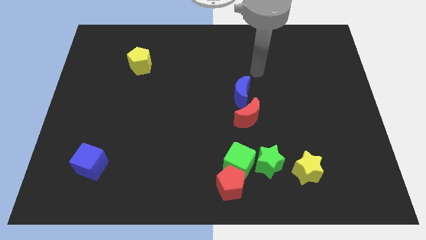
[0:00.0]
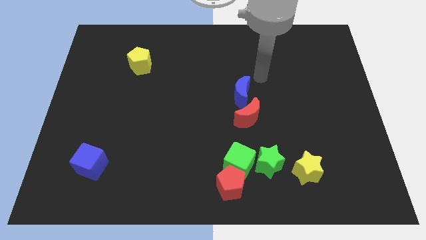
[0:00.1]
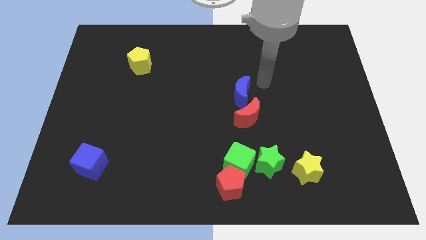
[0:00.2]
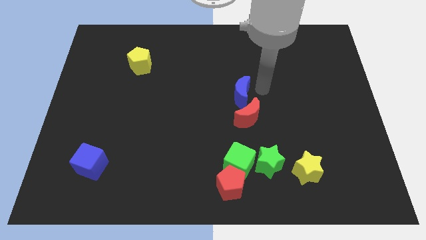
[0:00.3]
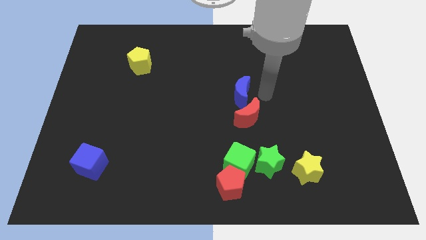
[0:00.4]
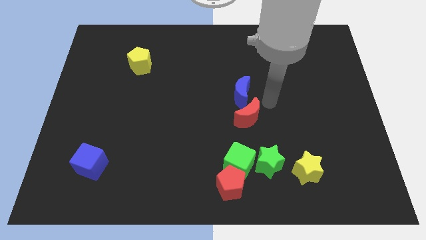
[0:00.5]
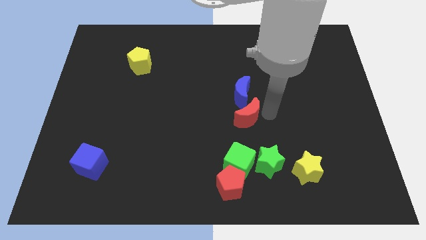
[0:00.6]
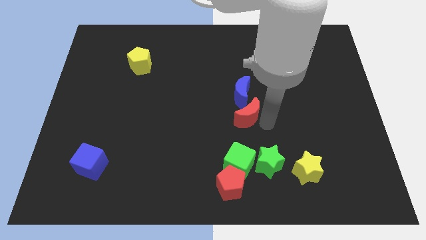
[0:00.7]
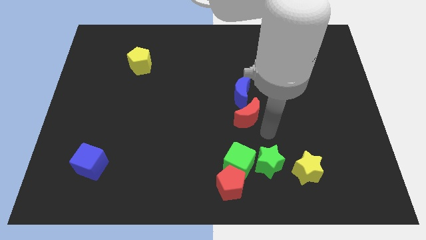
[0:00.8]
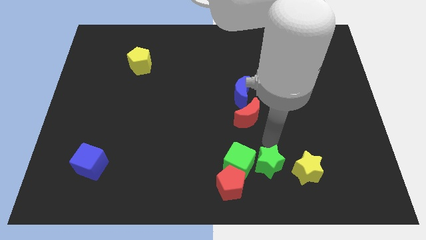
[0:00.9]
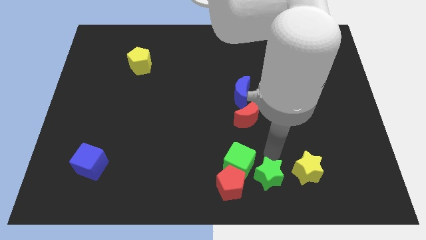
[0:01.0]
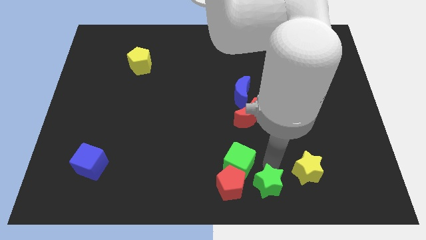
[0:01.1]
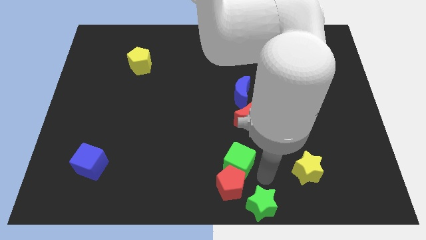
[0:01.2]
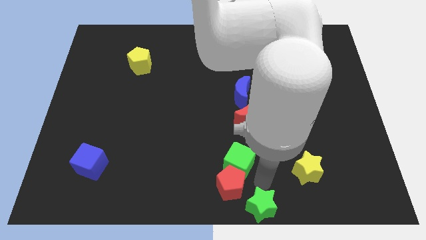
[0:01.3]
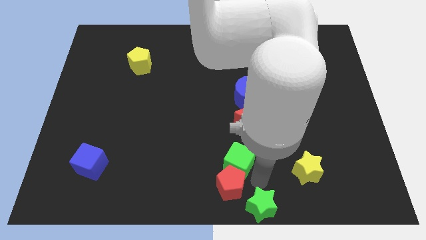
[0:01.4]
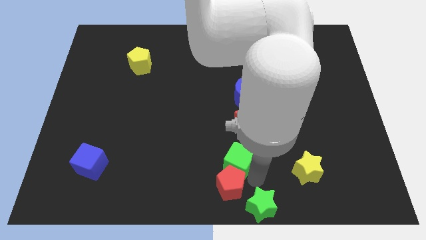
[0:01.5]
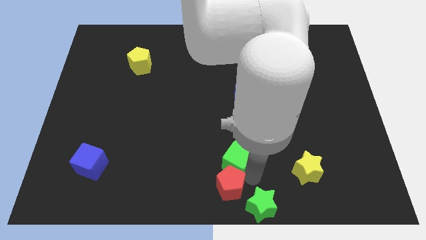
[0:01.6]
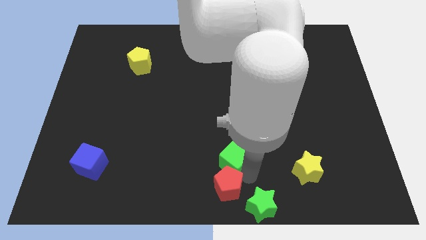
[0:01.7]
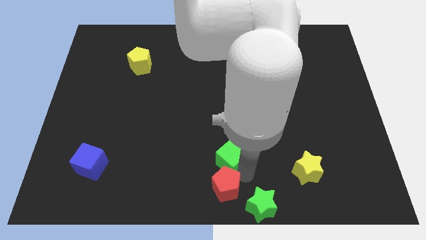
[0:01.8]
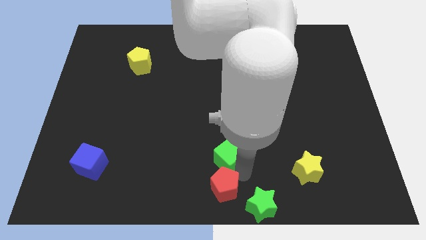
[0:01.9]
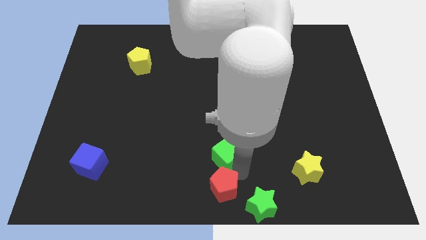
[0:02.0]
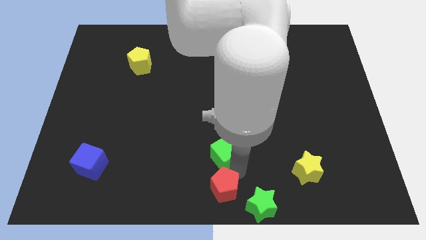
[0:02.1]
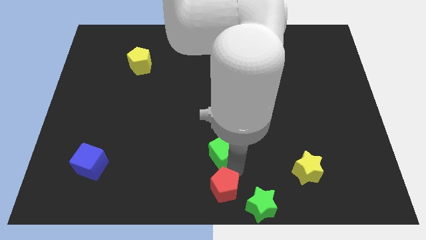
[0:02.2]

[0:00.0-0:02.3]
separate the green cube from the red pentagon and green star

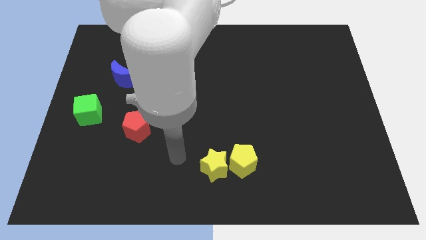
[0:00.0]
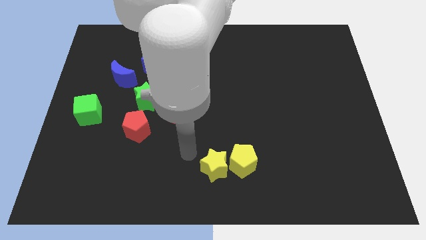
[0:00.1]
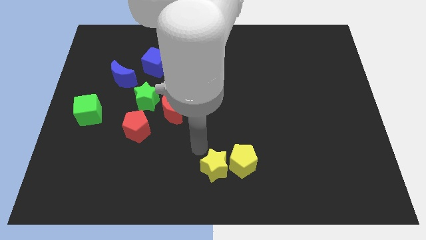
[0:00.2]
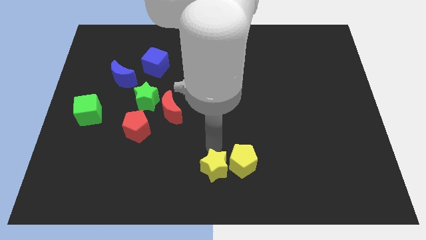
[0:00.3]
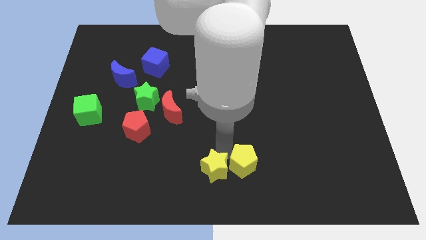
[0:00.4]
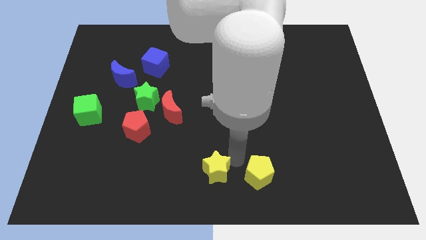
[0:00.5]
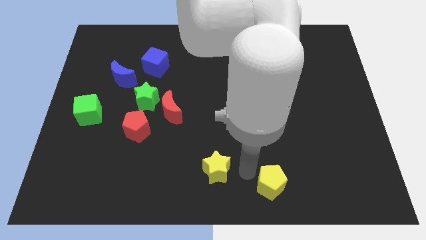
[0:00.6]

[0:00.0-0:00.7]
move the yellow star away from the yellow pentagon

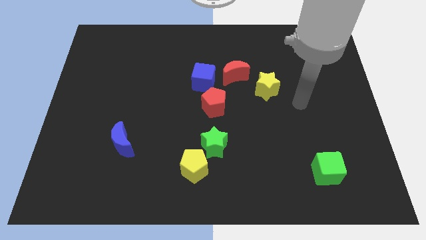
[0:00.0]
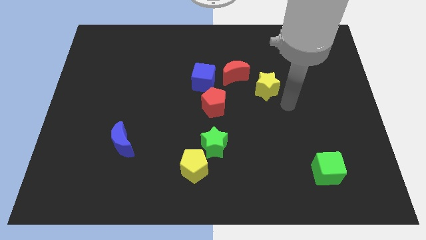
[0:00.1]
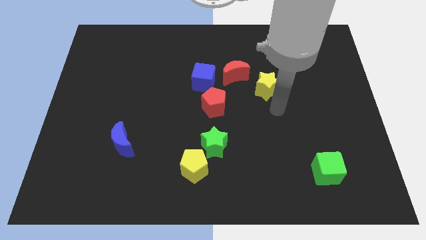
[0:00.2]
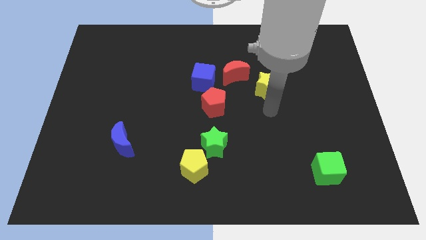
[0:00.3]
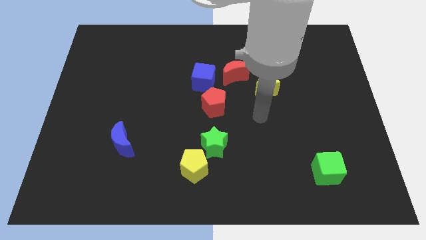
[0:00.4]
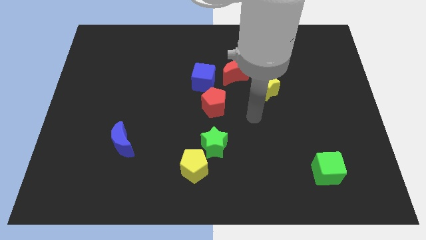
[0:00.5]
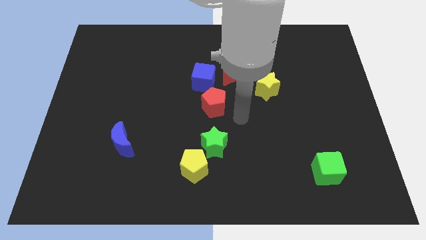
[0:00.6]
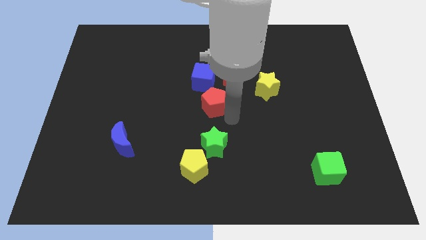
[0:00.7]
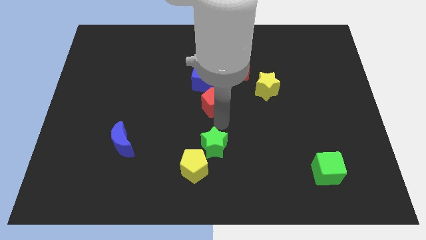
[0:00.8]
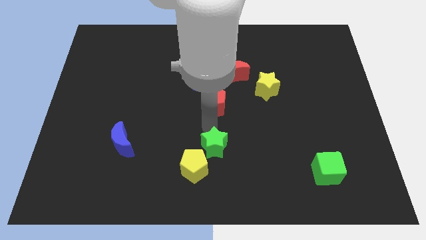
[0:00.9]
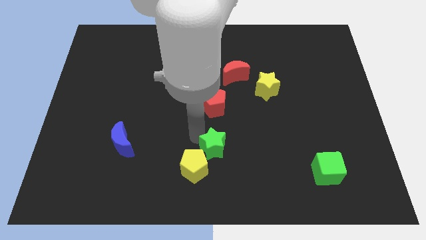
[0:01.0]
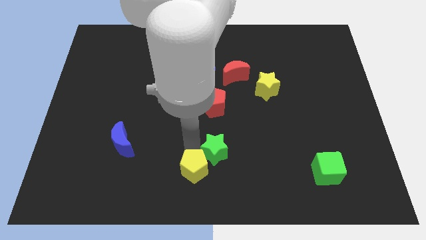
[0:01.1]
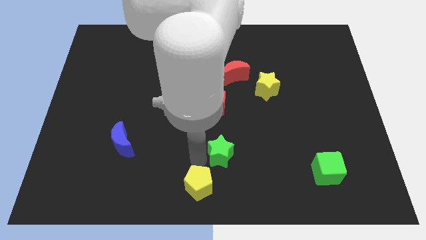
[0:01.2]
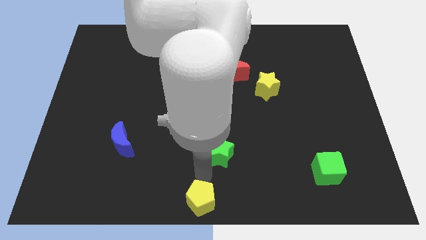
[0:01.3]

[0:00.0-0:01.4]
separate the green star from the yellow pentagon

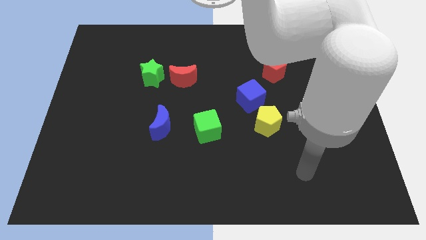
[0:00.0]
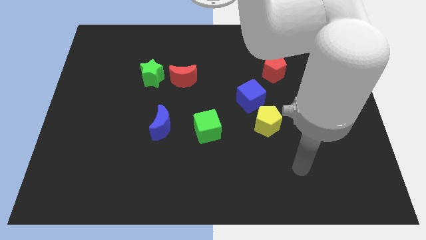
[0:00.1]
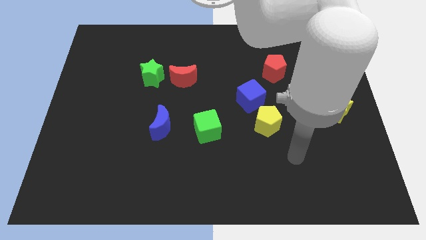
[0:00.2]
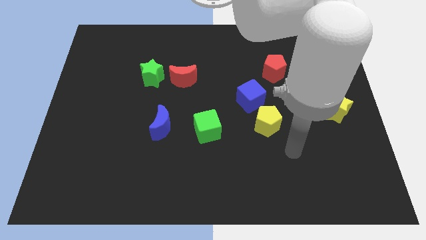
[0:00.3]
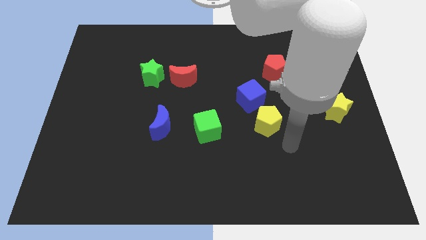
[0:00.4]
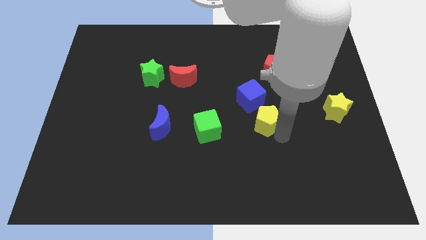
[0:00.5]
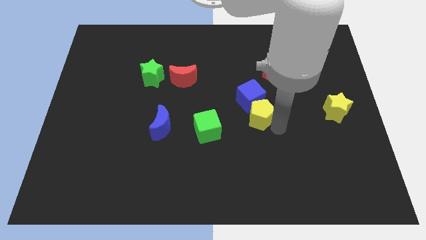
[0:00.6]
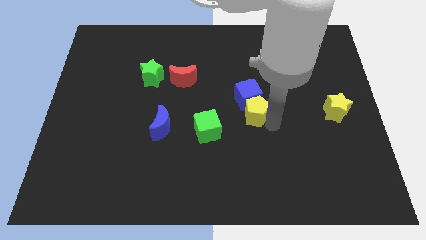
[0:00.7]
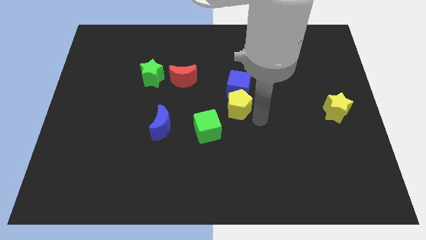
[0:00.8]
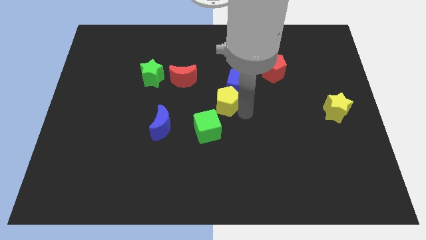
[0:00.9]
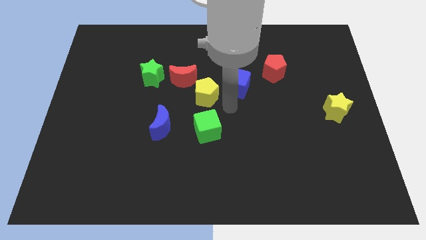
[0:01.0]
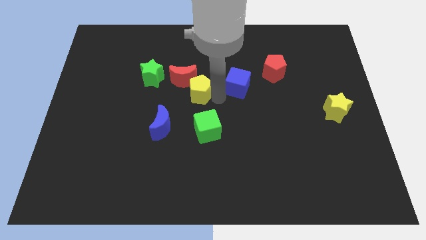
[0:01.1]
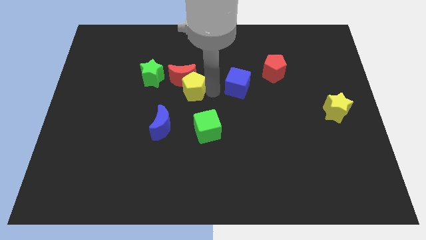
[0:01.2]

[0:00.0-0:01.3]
pull the blue cube apart from the yellow pentagon

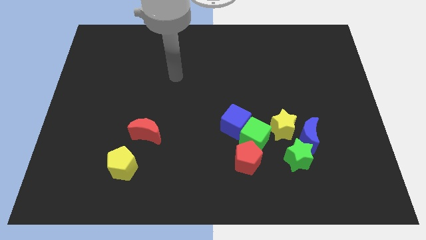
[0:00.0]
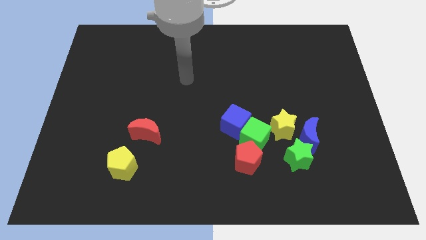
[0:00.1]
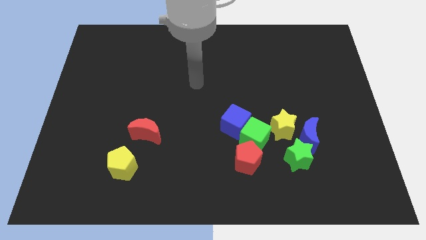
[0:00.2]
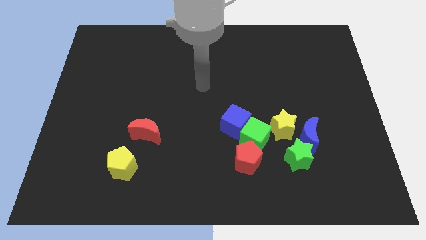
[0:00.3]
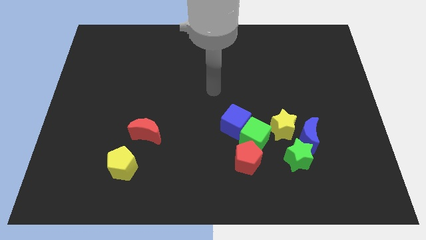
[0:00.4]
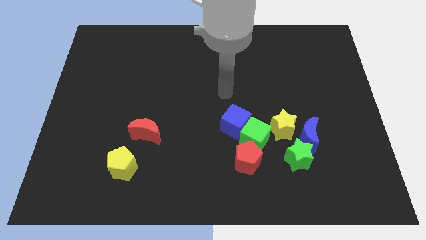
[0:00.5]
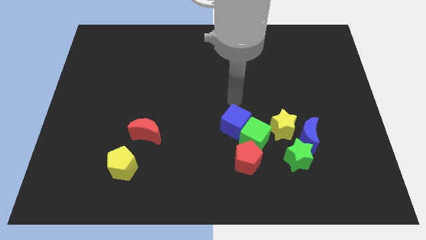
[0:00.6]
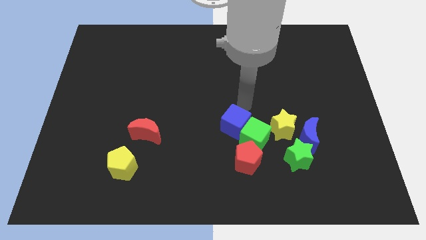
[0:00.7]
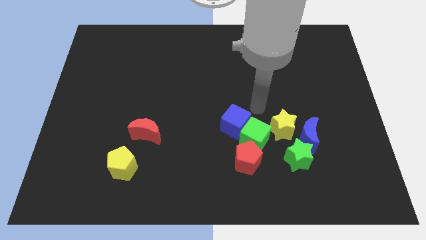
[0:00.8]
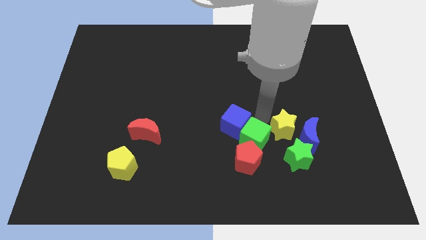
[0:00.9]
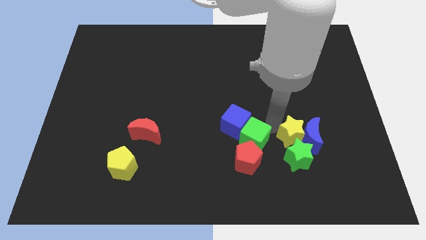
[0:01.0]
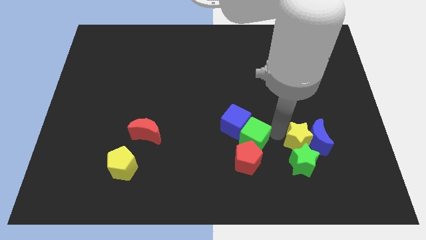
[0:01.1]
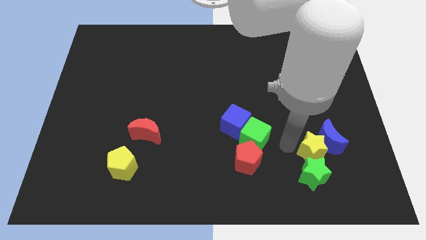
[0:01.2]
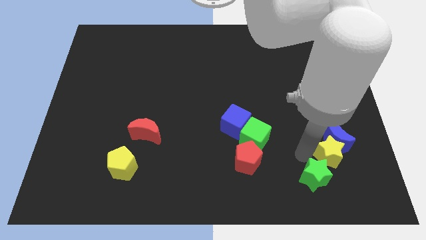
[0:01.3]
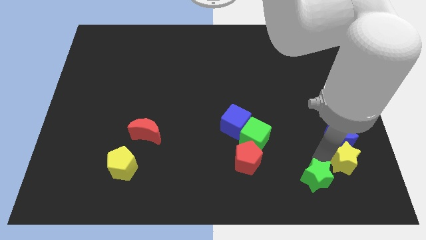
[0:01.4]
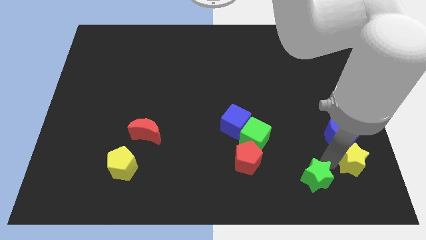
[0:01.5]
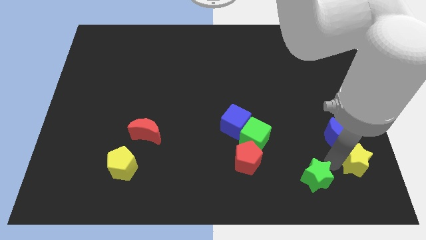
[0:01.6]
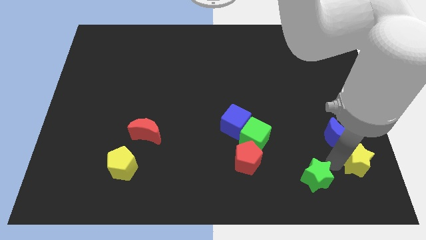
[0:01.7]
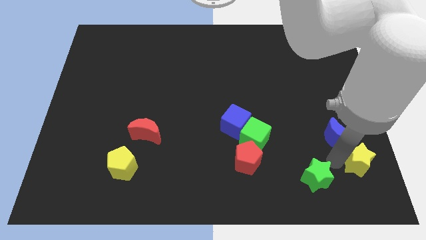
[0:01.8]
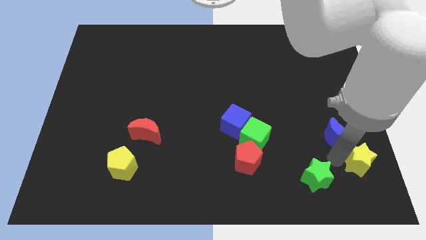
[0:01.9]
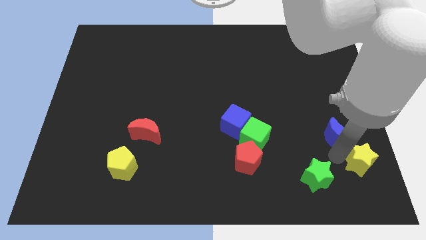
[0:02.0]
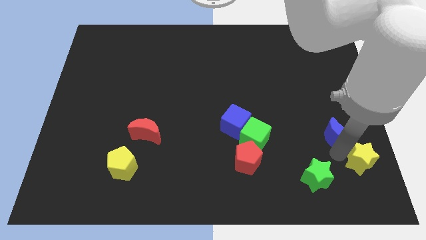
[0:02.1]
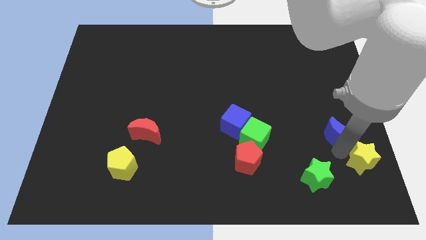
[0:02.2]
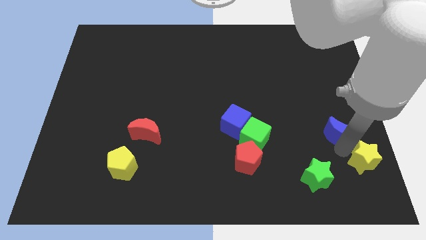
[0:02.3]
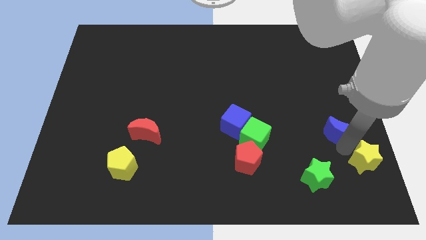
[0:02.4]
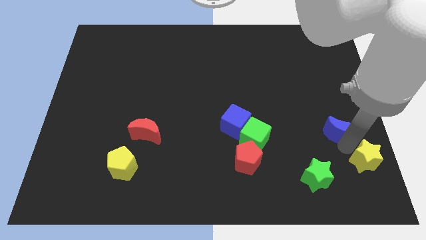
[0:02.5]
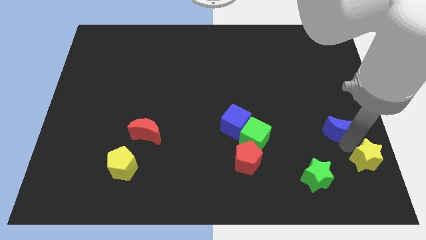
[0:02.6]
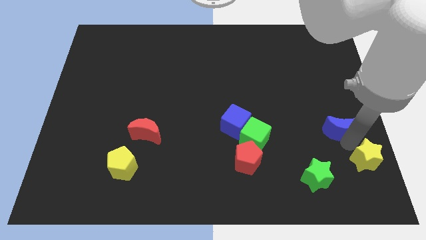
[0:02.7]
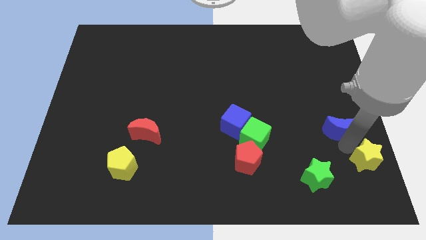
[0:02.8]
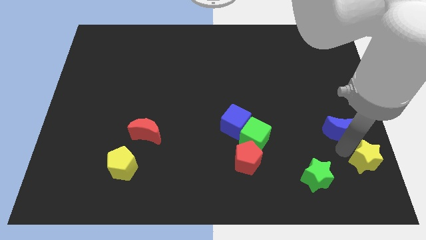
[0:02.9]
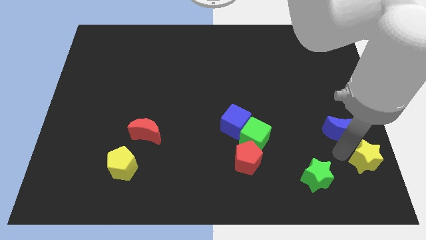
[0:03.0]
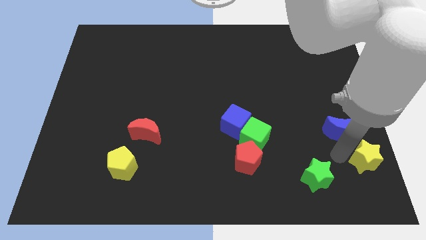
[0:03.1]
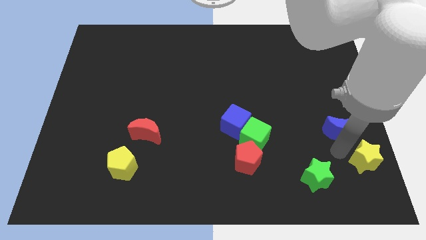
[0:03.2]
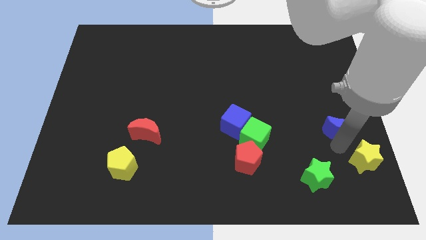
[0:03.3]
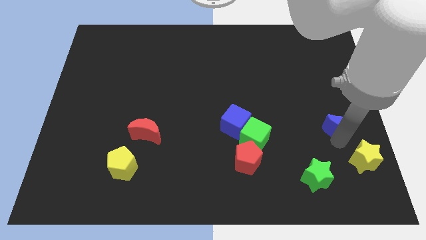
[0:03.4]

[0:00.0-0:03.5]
move the blue moon away from the green star and yellow star
